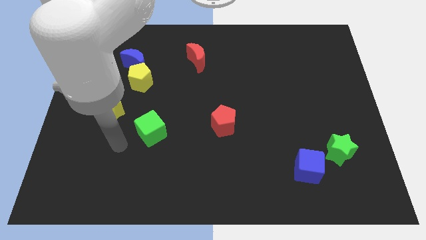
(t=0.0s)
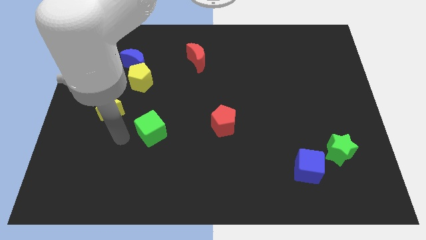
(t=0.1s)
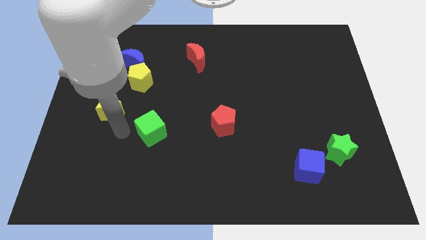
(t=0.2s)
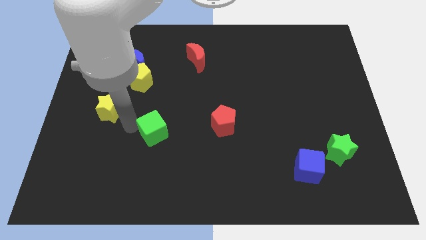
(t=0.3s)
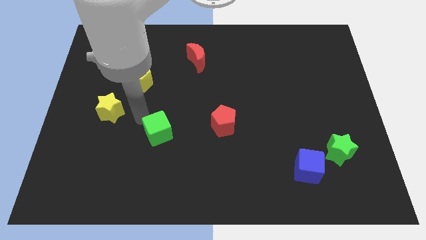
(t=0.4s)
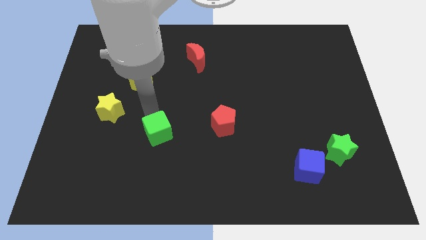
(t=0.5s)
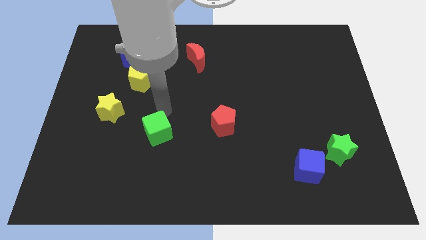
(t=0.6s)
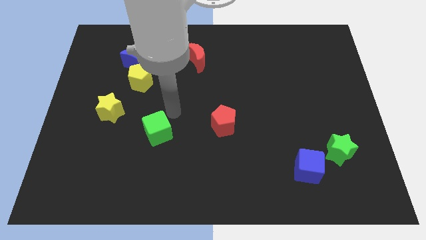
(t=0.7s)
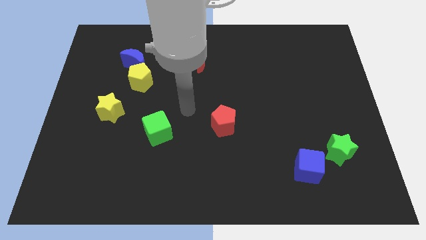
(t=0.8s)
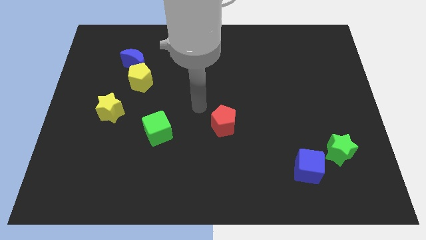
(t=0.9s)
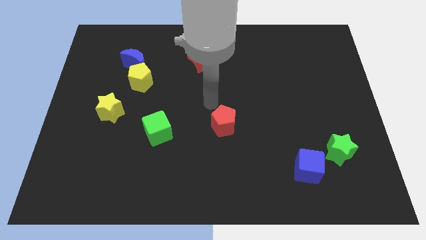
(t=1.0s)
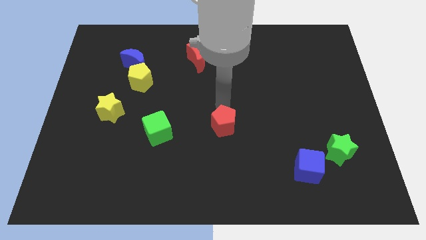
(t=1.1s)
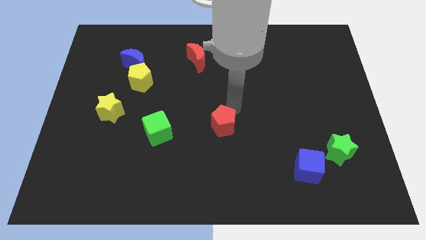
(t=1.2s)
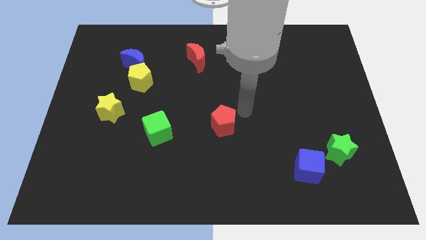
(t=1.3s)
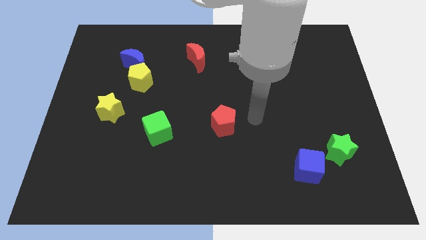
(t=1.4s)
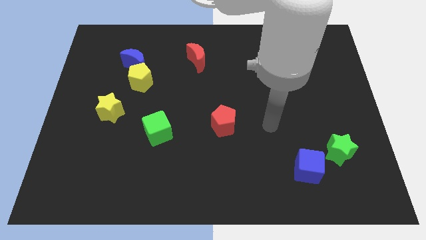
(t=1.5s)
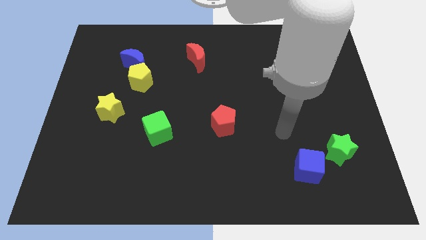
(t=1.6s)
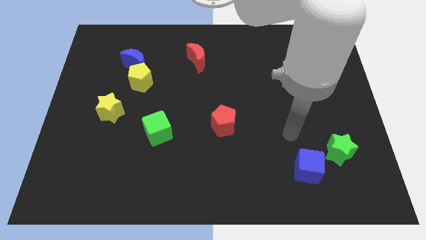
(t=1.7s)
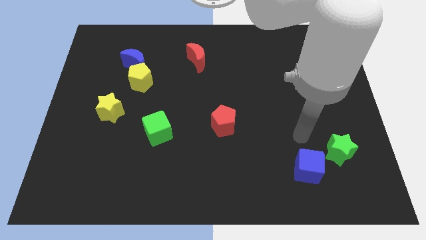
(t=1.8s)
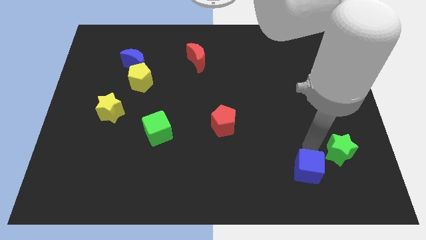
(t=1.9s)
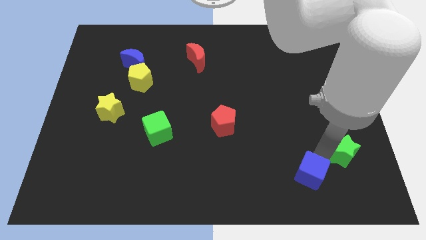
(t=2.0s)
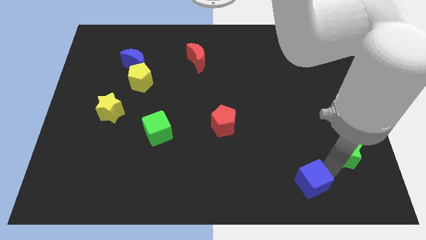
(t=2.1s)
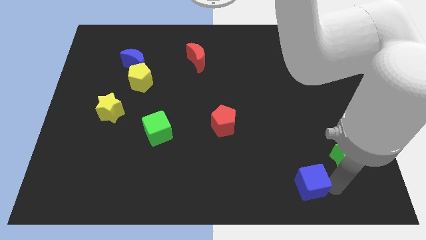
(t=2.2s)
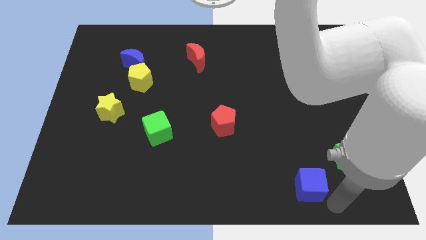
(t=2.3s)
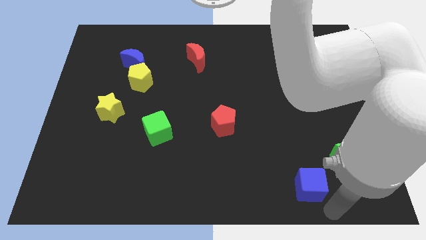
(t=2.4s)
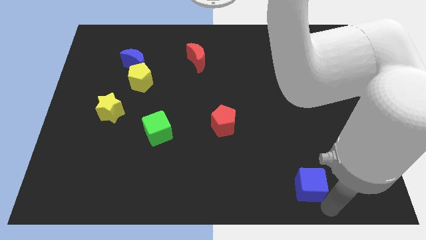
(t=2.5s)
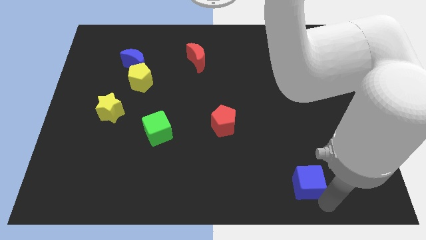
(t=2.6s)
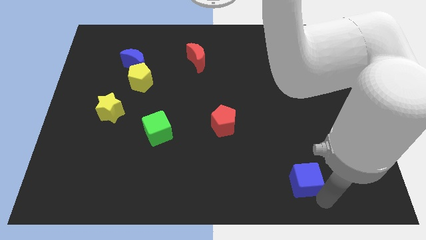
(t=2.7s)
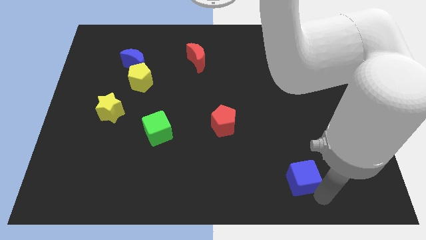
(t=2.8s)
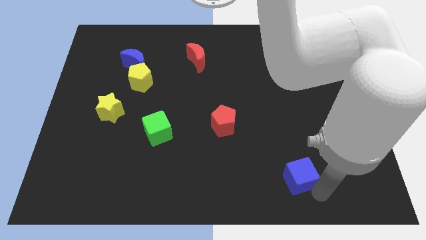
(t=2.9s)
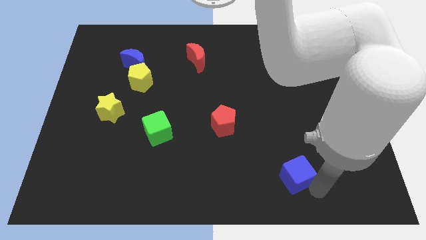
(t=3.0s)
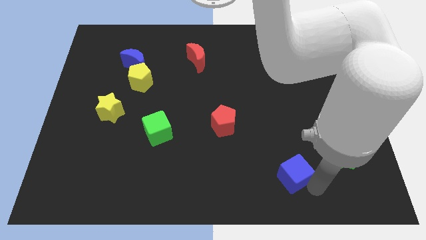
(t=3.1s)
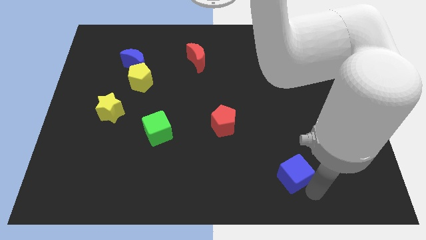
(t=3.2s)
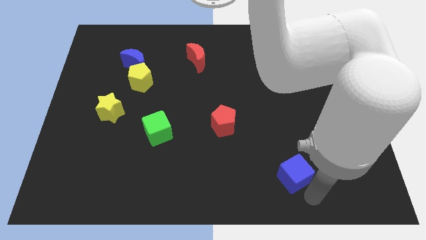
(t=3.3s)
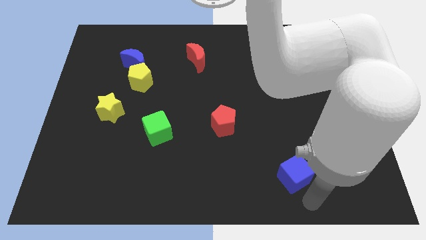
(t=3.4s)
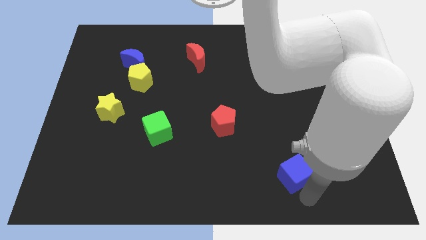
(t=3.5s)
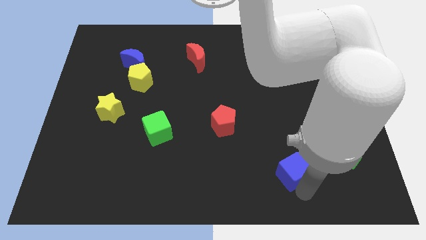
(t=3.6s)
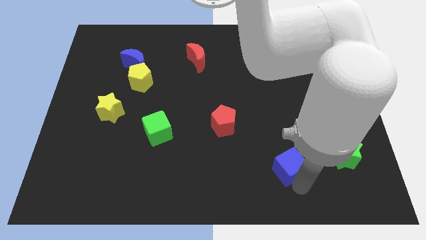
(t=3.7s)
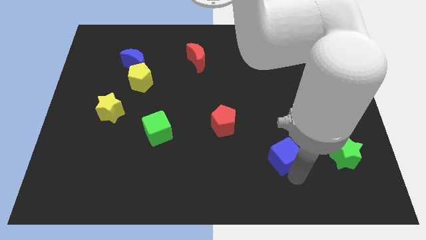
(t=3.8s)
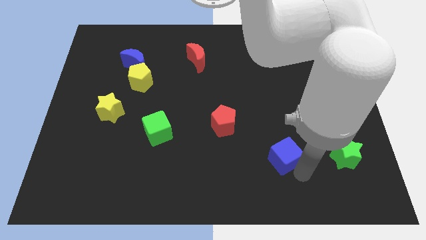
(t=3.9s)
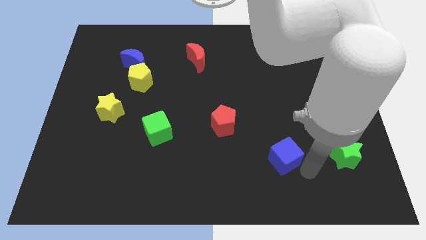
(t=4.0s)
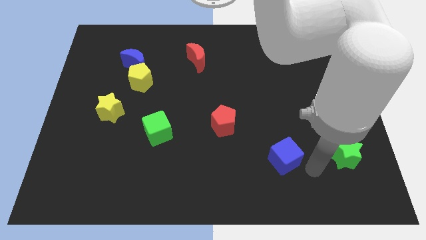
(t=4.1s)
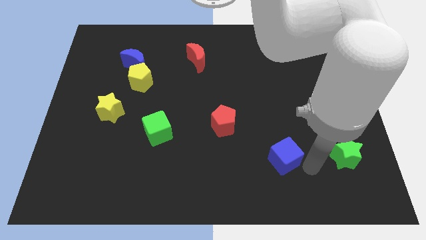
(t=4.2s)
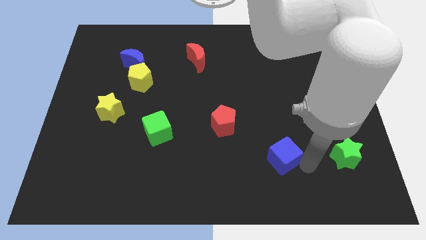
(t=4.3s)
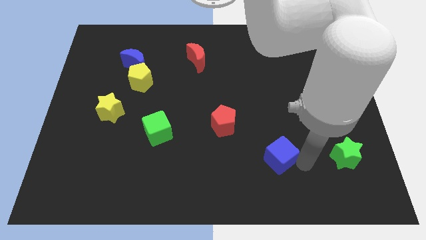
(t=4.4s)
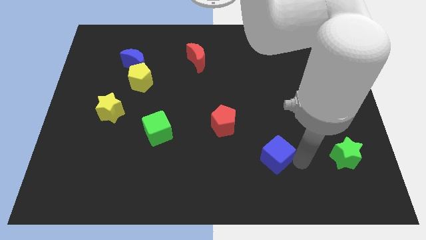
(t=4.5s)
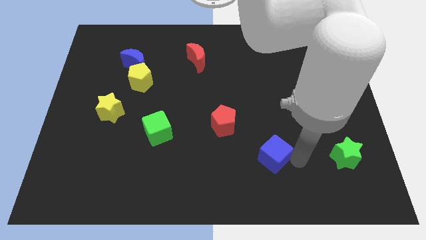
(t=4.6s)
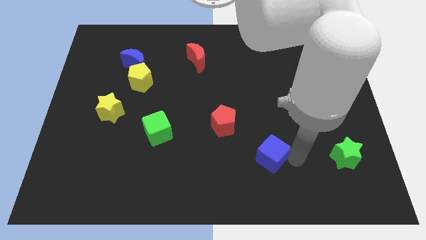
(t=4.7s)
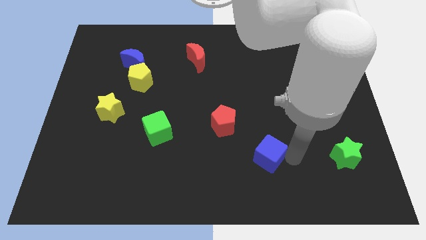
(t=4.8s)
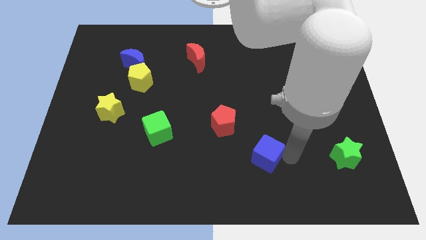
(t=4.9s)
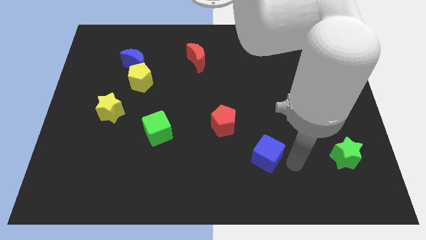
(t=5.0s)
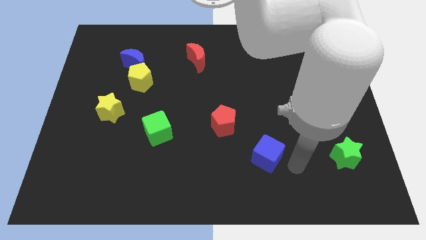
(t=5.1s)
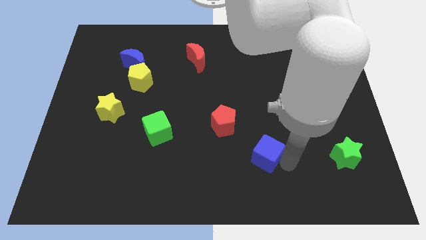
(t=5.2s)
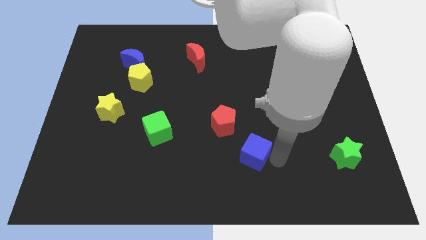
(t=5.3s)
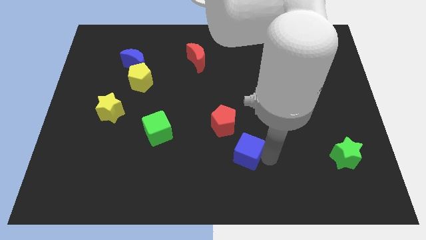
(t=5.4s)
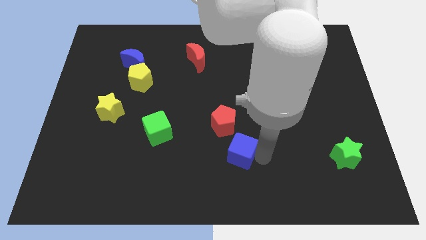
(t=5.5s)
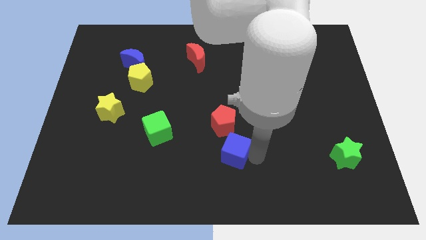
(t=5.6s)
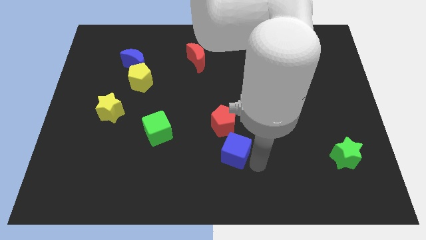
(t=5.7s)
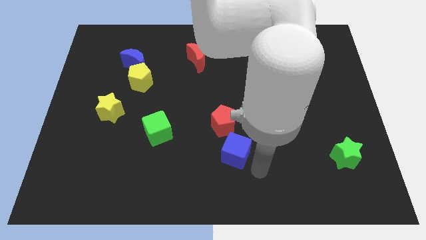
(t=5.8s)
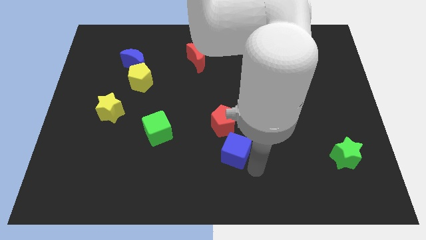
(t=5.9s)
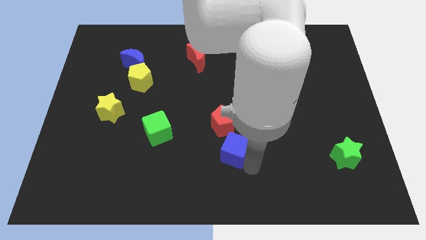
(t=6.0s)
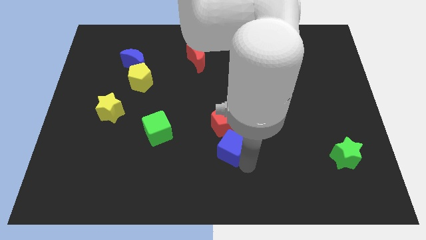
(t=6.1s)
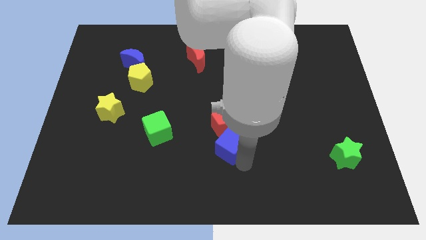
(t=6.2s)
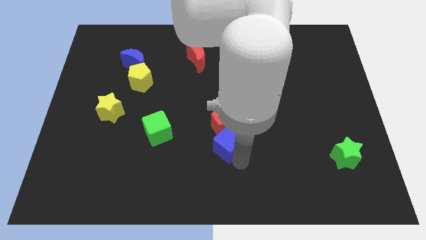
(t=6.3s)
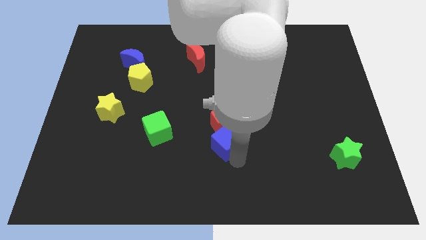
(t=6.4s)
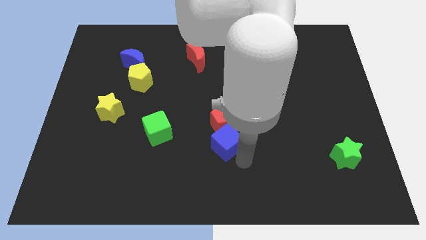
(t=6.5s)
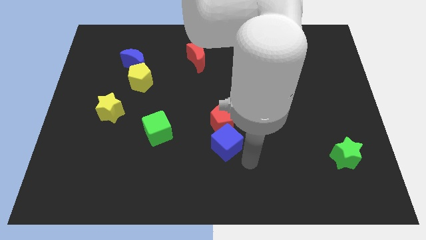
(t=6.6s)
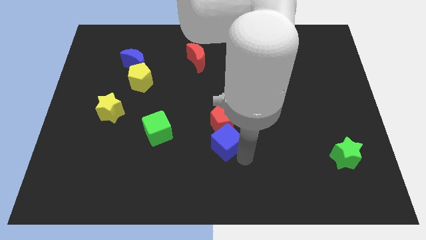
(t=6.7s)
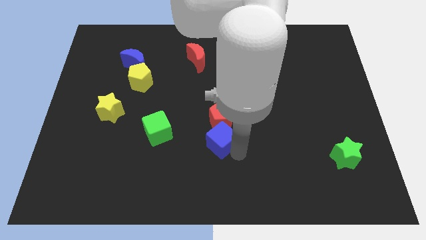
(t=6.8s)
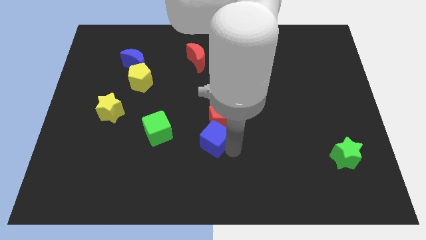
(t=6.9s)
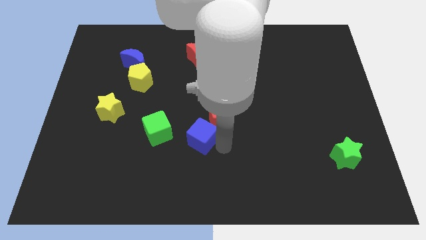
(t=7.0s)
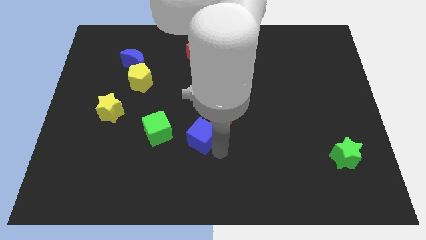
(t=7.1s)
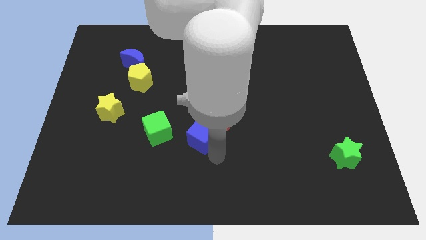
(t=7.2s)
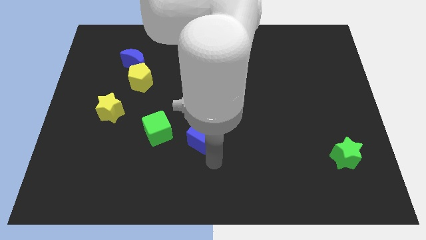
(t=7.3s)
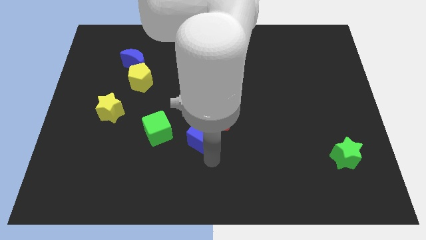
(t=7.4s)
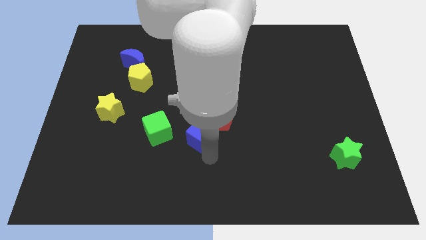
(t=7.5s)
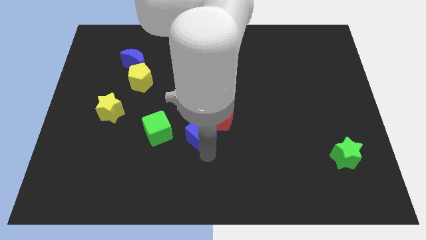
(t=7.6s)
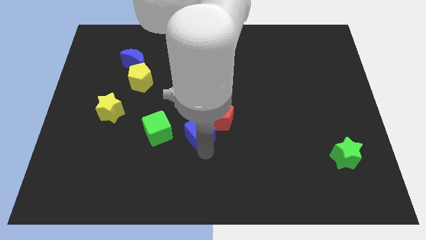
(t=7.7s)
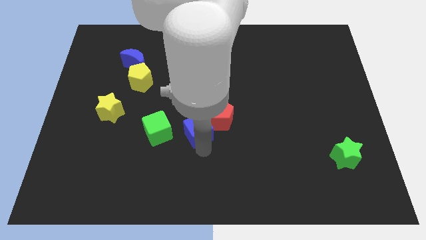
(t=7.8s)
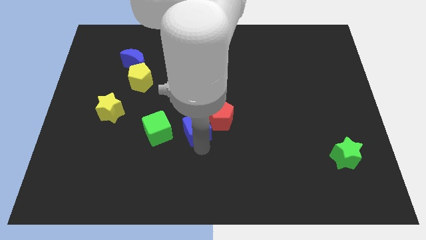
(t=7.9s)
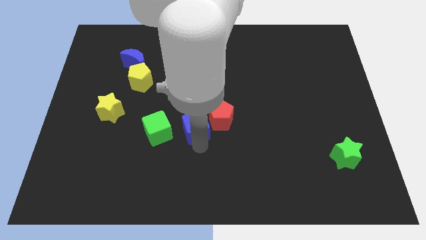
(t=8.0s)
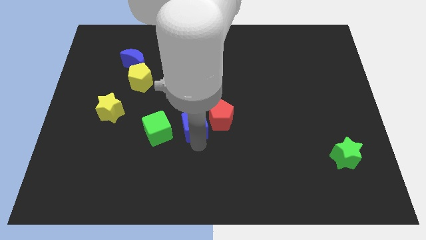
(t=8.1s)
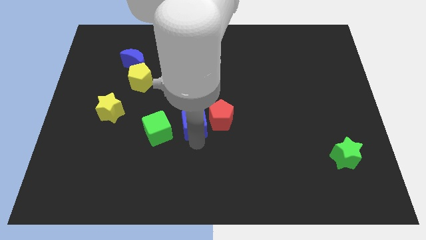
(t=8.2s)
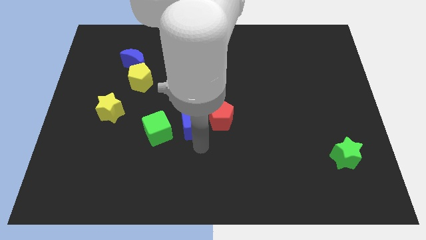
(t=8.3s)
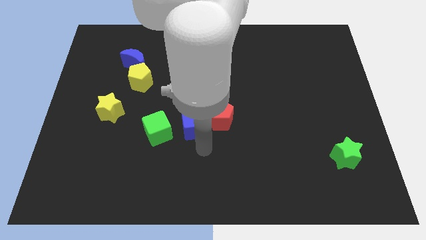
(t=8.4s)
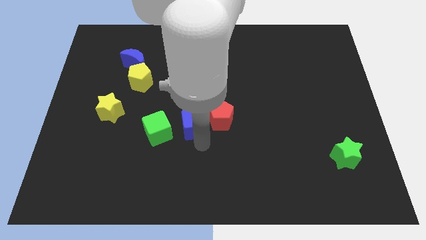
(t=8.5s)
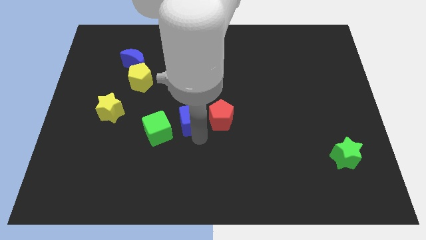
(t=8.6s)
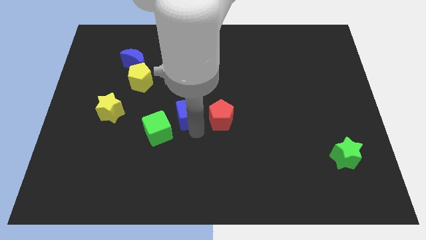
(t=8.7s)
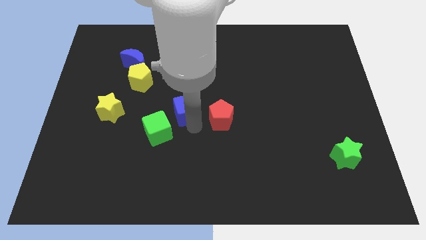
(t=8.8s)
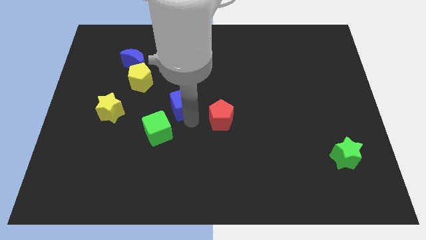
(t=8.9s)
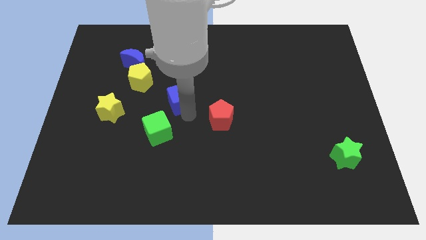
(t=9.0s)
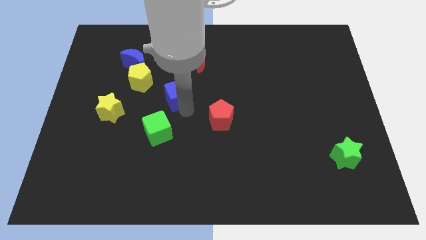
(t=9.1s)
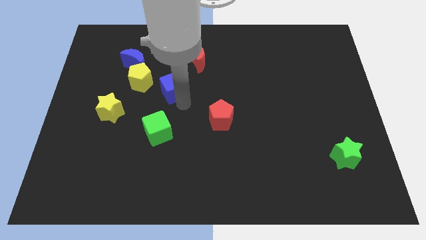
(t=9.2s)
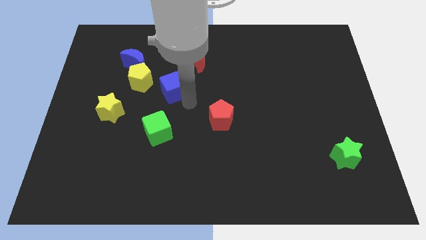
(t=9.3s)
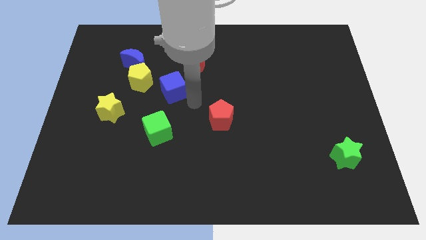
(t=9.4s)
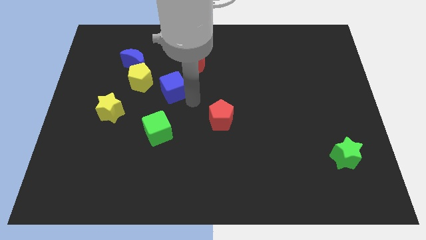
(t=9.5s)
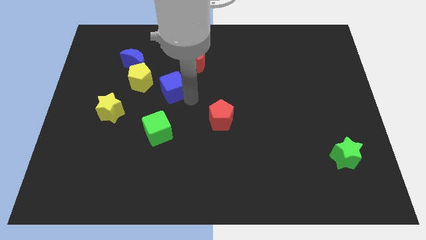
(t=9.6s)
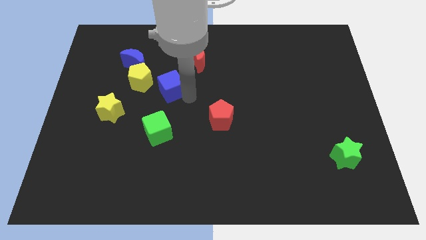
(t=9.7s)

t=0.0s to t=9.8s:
push the blue cube to the bottom right of the blue moon
